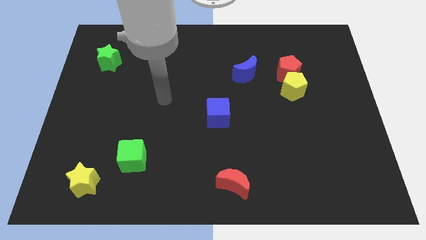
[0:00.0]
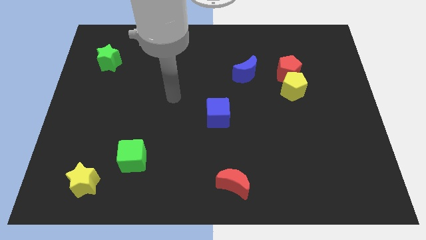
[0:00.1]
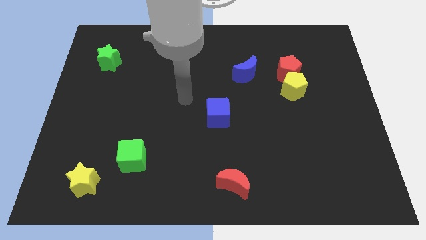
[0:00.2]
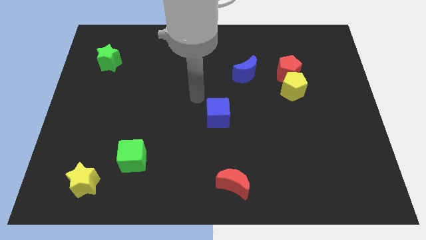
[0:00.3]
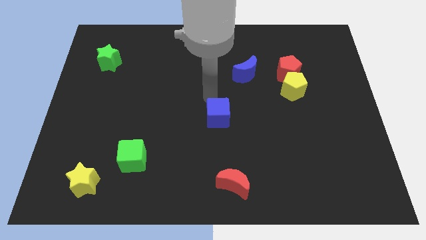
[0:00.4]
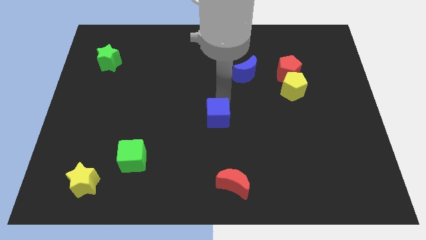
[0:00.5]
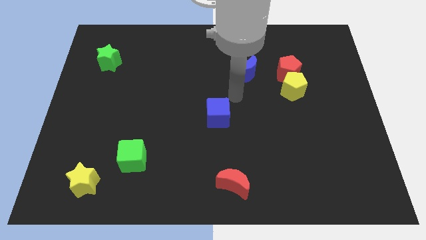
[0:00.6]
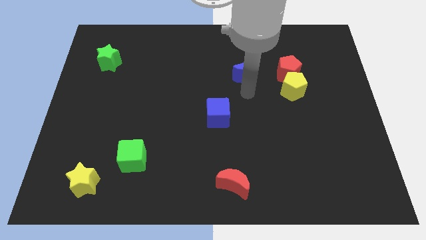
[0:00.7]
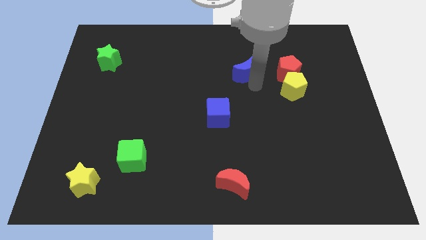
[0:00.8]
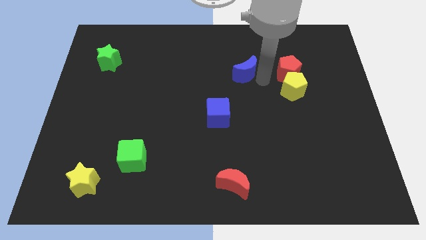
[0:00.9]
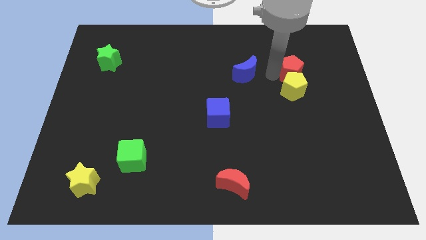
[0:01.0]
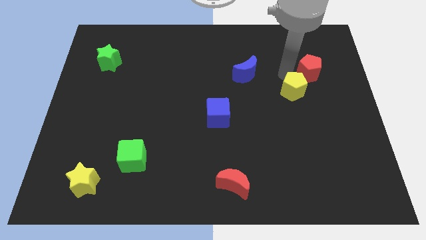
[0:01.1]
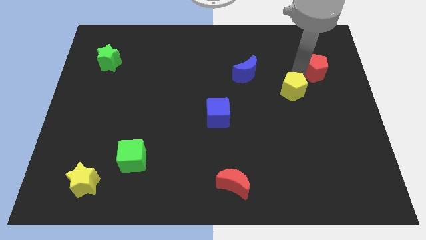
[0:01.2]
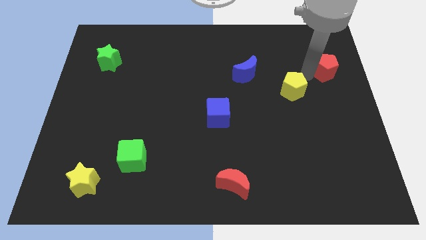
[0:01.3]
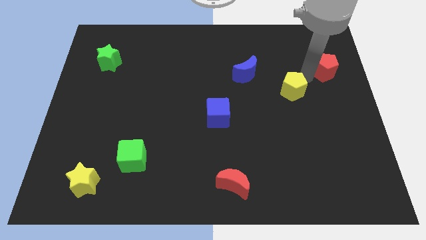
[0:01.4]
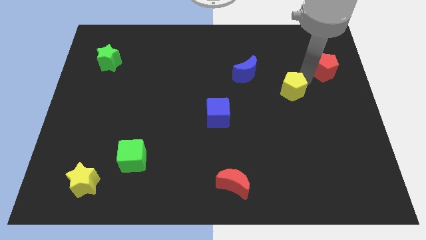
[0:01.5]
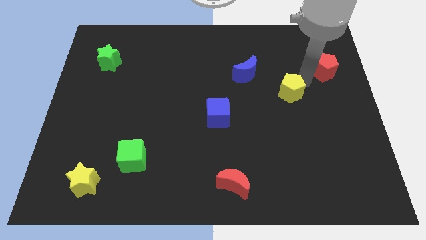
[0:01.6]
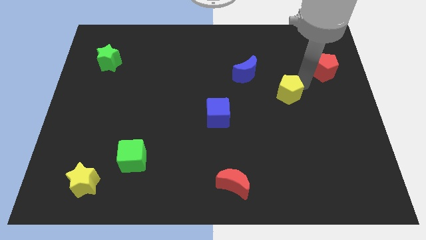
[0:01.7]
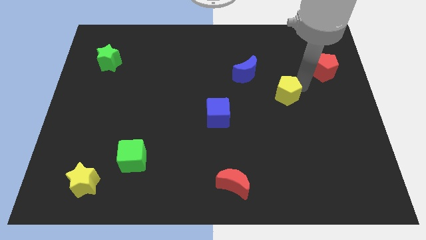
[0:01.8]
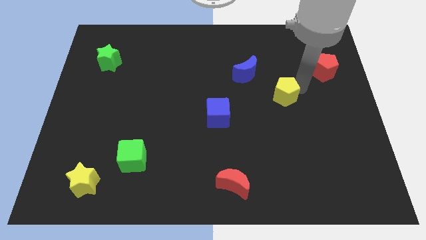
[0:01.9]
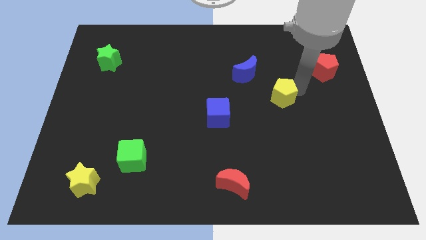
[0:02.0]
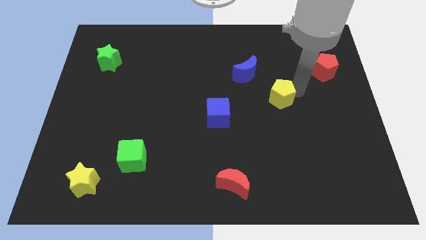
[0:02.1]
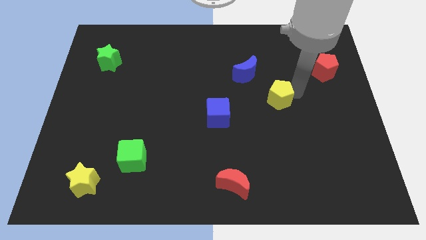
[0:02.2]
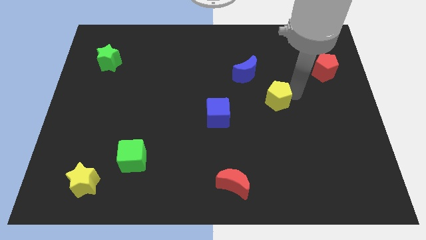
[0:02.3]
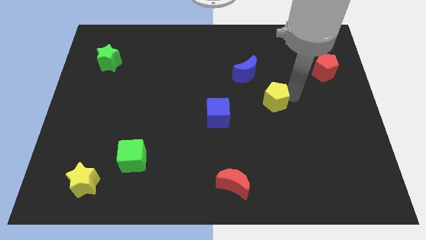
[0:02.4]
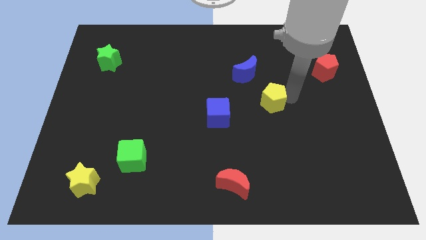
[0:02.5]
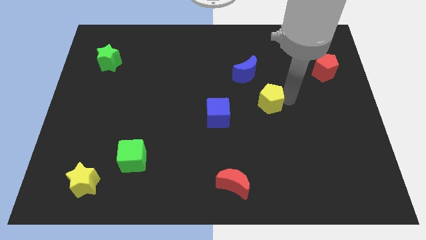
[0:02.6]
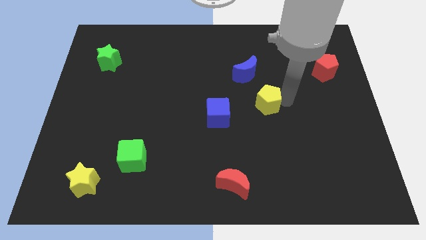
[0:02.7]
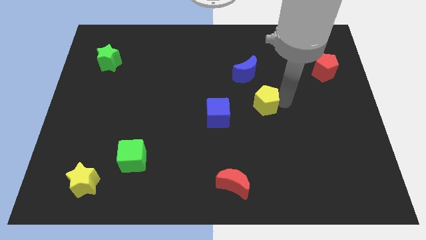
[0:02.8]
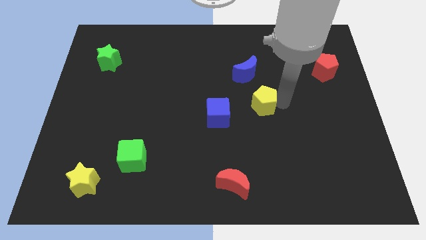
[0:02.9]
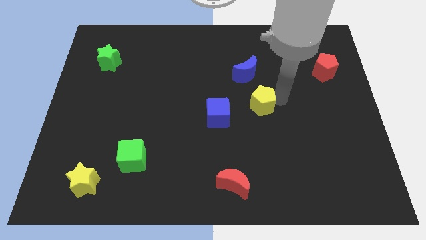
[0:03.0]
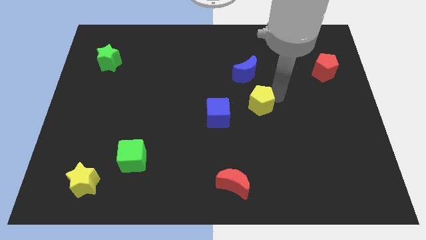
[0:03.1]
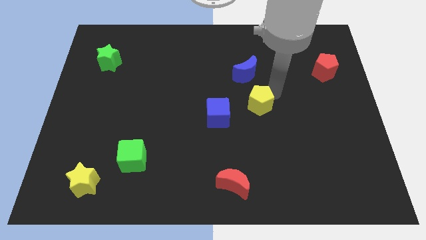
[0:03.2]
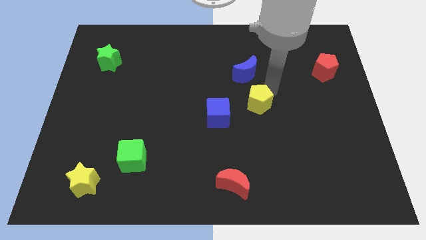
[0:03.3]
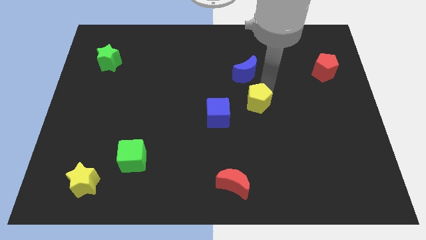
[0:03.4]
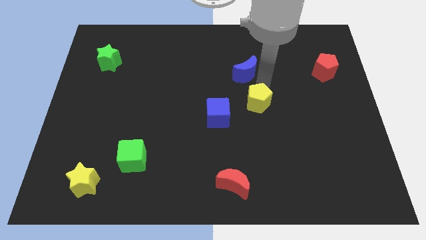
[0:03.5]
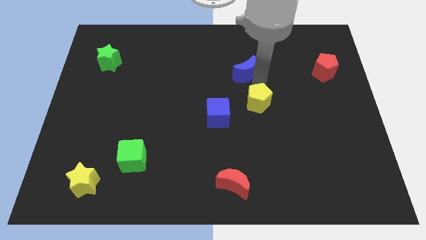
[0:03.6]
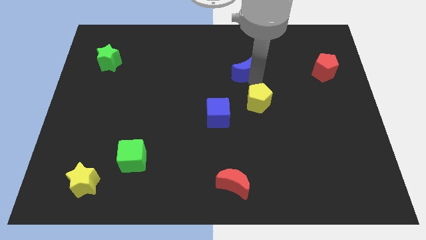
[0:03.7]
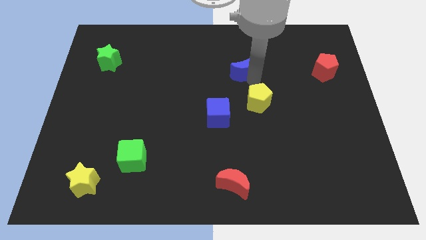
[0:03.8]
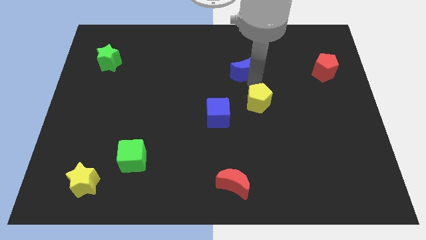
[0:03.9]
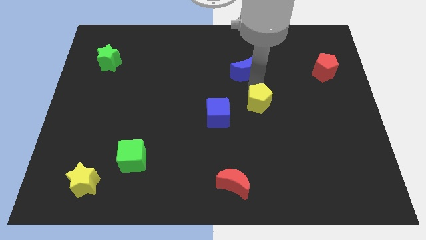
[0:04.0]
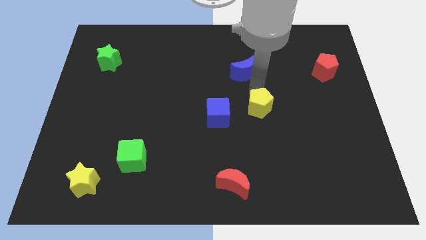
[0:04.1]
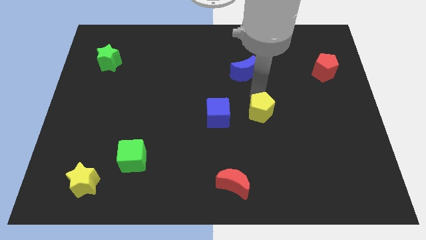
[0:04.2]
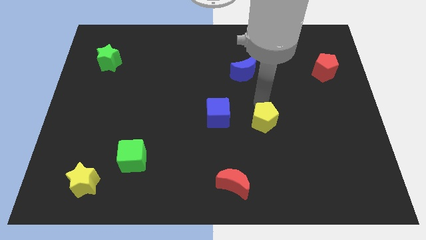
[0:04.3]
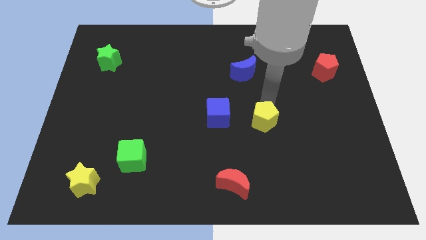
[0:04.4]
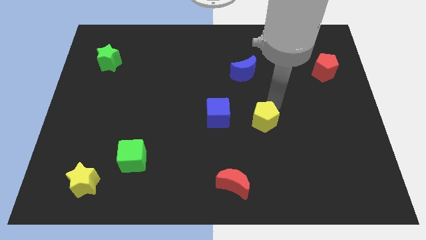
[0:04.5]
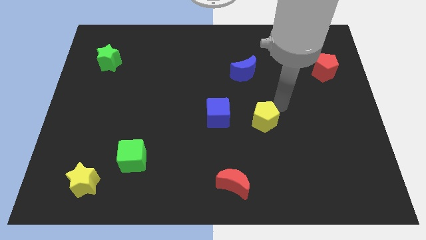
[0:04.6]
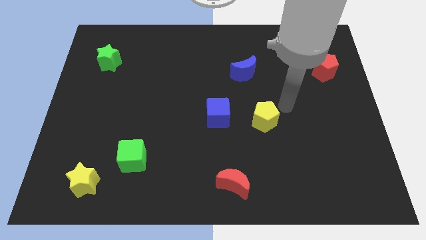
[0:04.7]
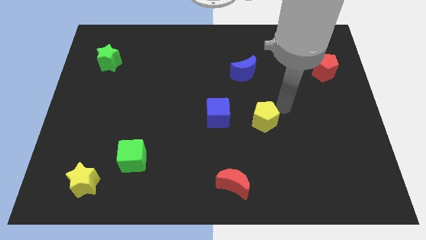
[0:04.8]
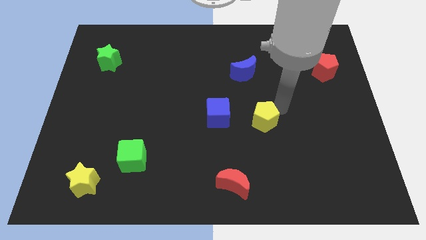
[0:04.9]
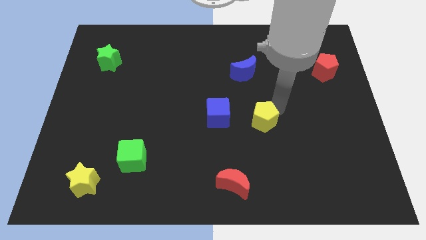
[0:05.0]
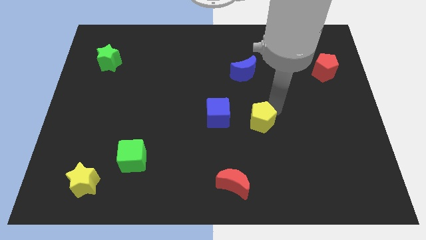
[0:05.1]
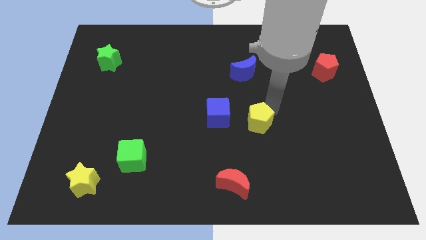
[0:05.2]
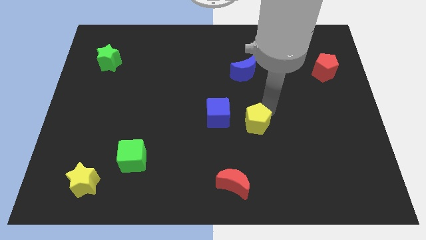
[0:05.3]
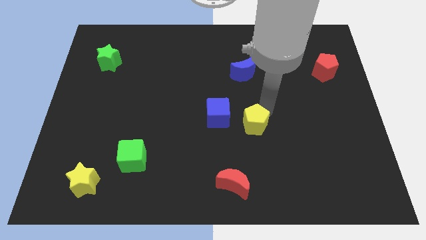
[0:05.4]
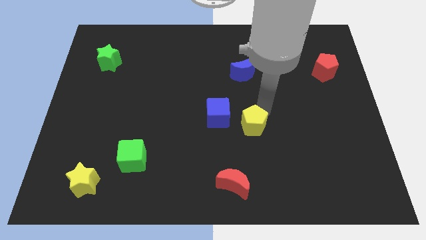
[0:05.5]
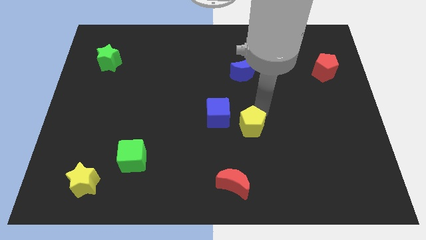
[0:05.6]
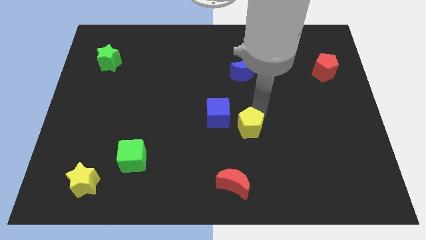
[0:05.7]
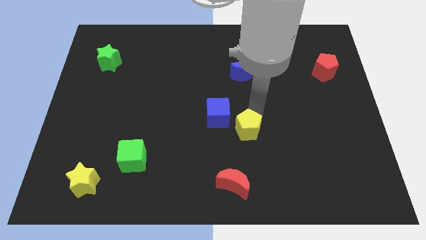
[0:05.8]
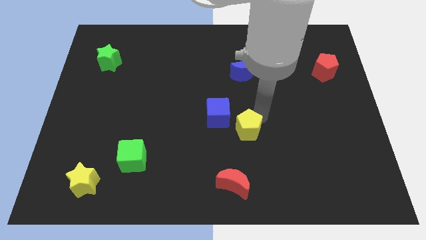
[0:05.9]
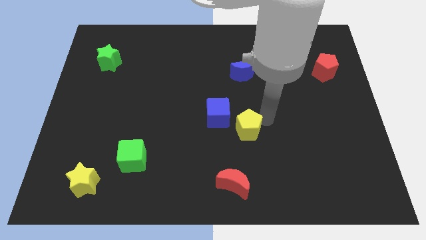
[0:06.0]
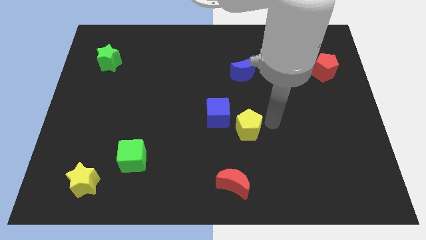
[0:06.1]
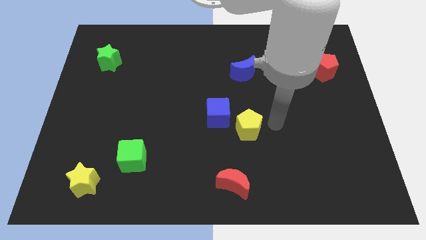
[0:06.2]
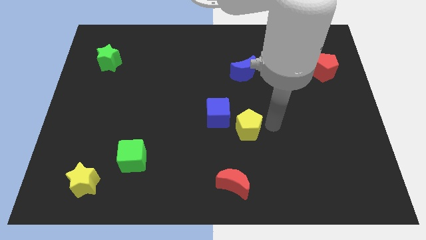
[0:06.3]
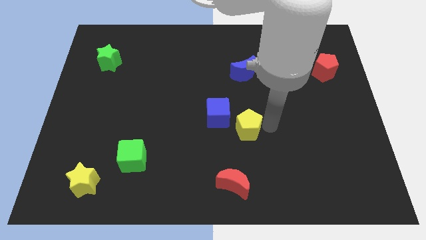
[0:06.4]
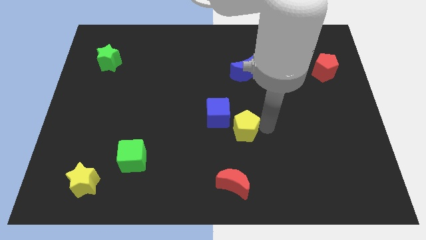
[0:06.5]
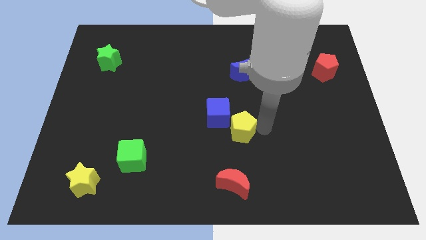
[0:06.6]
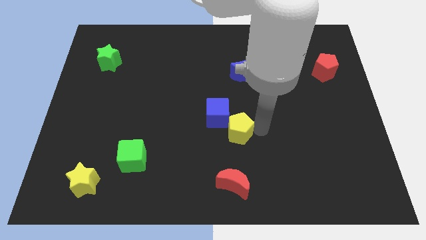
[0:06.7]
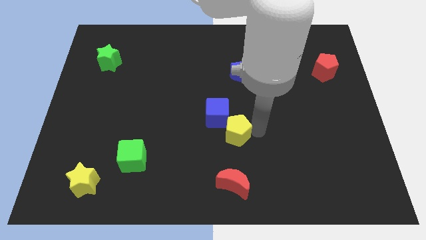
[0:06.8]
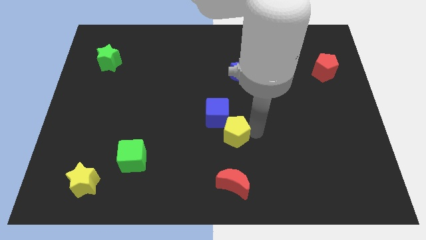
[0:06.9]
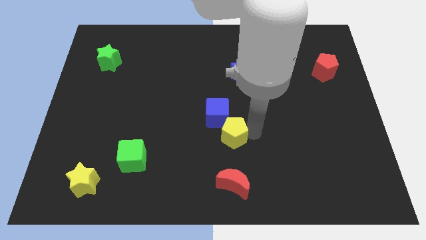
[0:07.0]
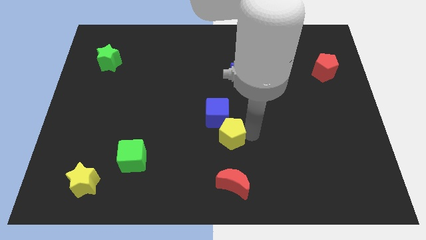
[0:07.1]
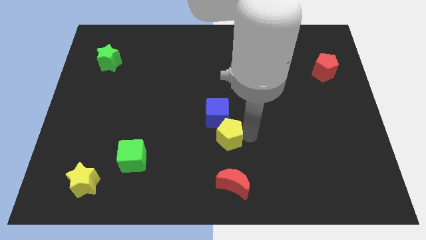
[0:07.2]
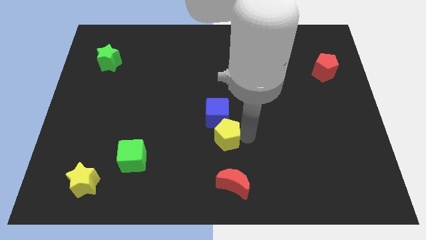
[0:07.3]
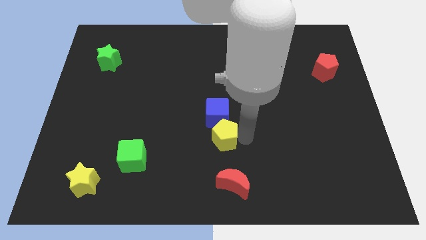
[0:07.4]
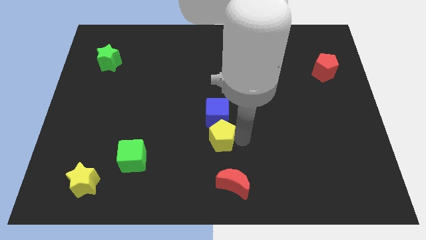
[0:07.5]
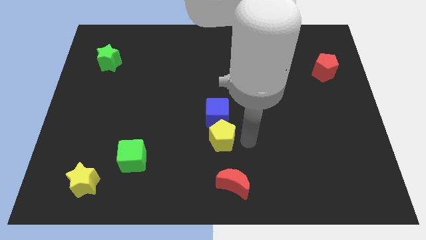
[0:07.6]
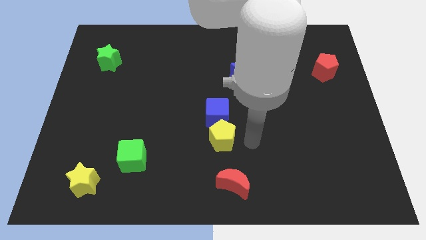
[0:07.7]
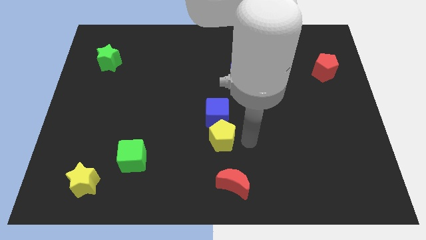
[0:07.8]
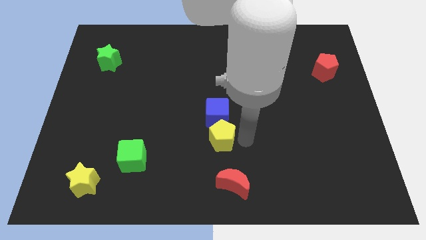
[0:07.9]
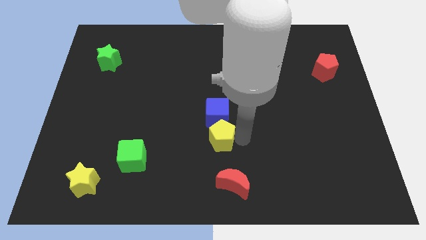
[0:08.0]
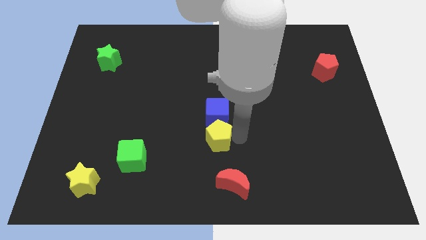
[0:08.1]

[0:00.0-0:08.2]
push the yellow pentagon diagonally down and to the left of the blue cube
